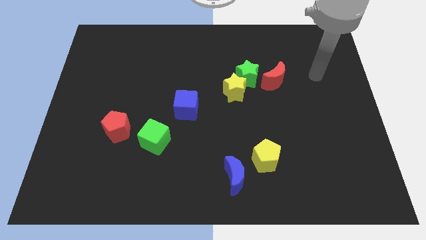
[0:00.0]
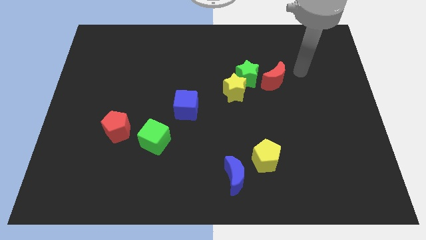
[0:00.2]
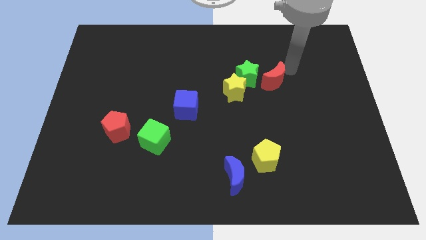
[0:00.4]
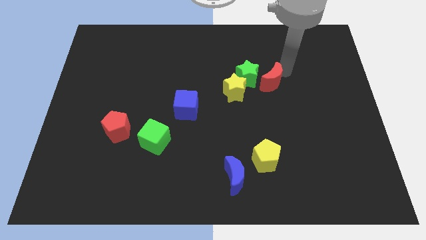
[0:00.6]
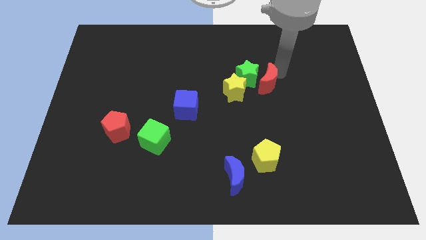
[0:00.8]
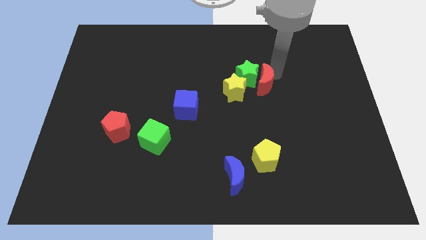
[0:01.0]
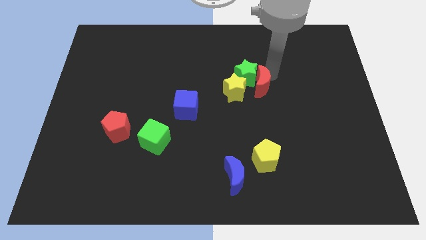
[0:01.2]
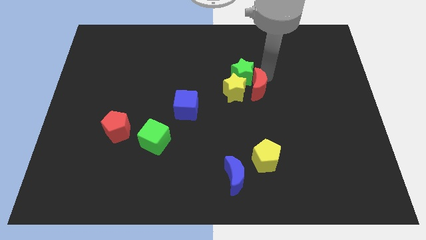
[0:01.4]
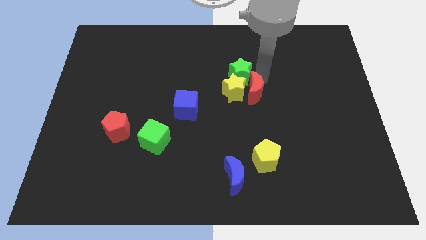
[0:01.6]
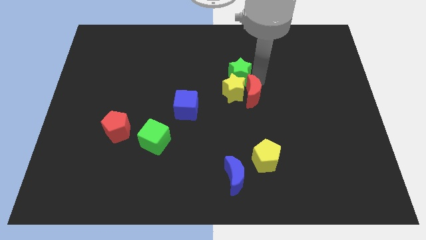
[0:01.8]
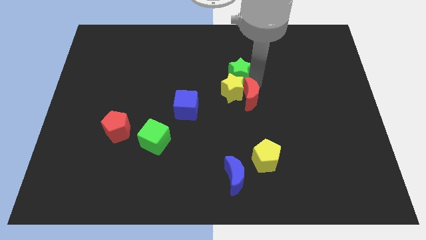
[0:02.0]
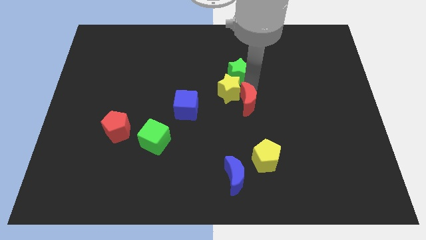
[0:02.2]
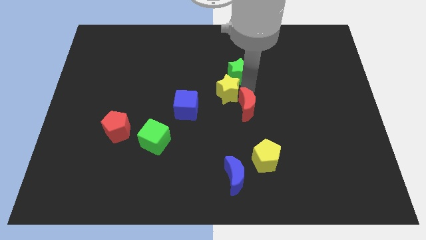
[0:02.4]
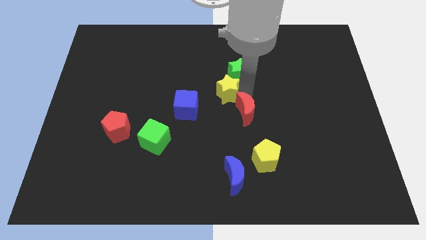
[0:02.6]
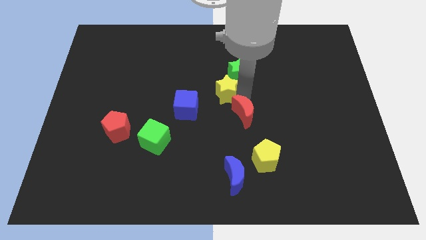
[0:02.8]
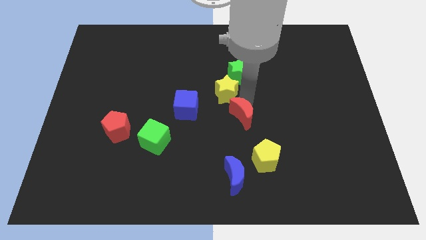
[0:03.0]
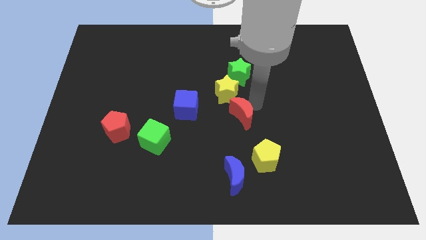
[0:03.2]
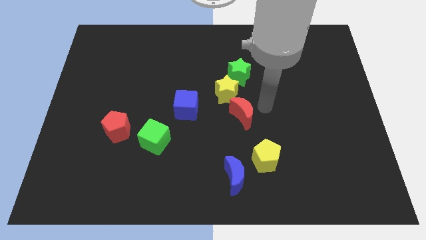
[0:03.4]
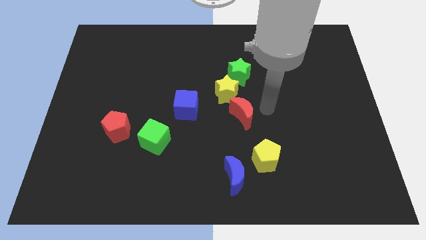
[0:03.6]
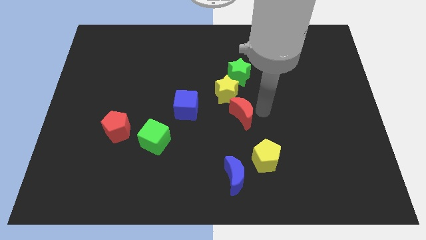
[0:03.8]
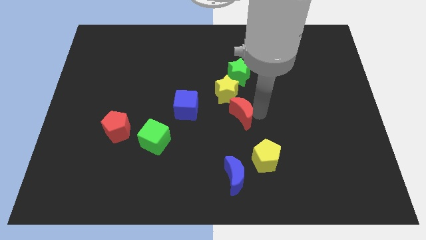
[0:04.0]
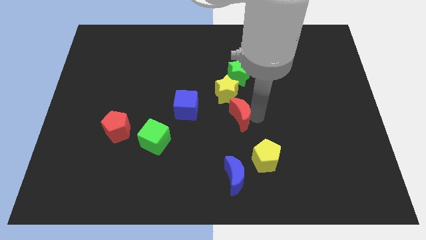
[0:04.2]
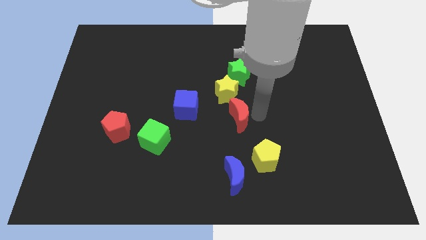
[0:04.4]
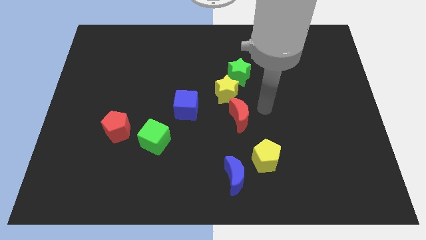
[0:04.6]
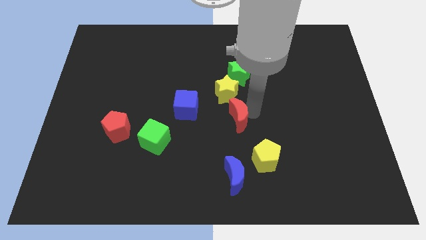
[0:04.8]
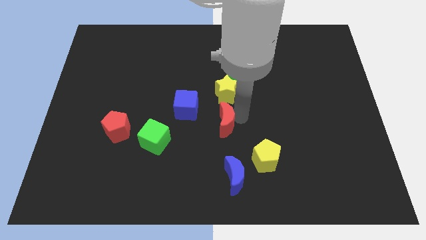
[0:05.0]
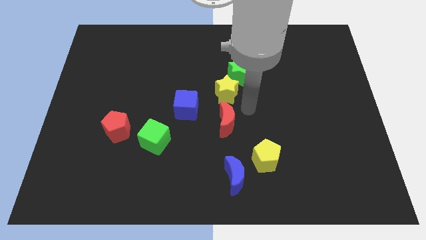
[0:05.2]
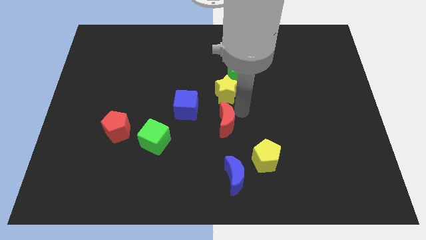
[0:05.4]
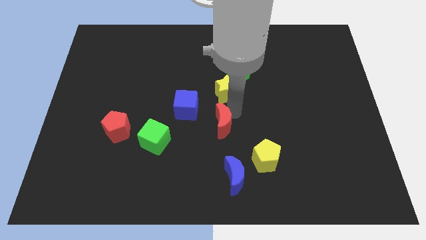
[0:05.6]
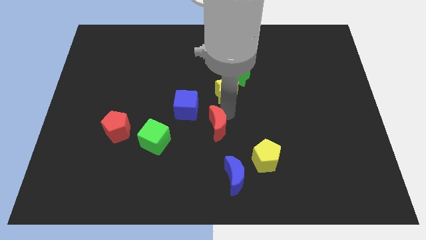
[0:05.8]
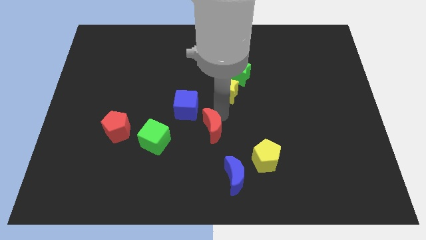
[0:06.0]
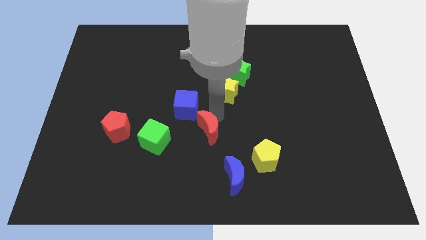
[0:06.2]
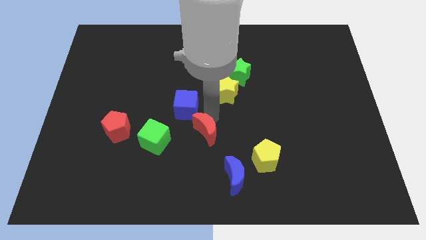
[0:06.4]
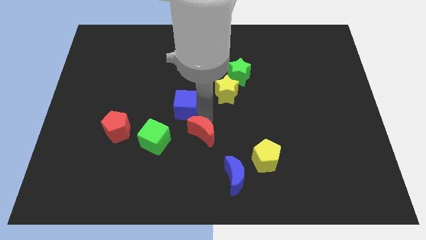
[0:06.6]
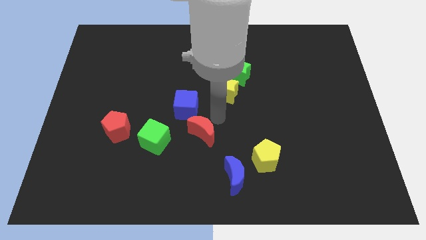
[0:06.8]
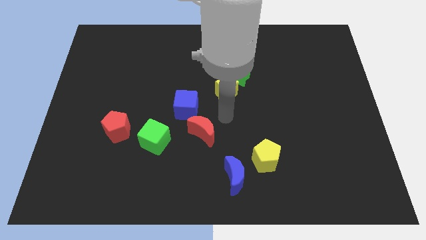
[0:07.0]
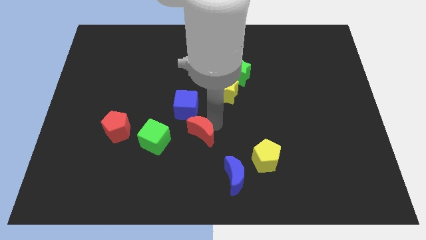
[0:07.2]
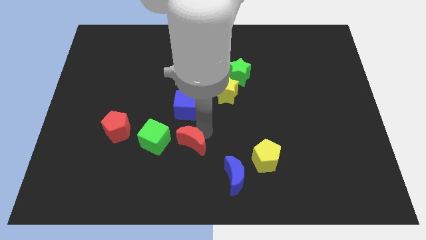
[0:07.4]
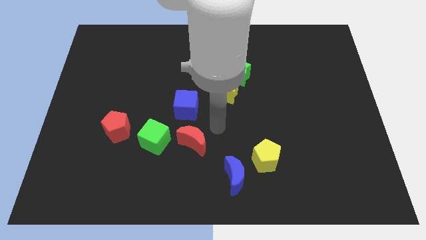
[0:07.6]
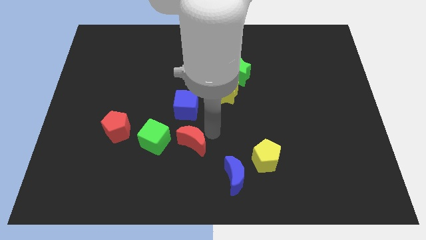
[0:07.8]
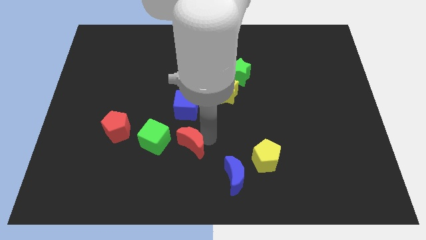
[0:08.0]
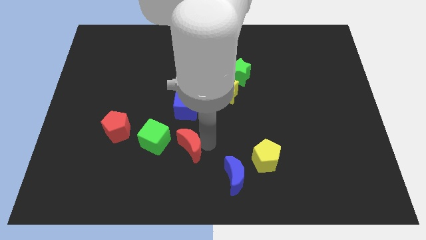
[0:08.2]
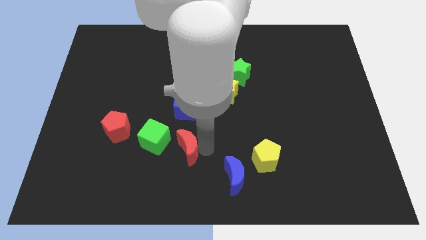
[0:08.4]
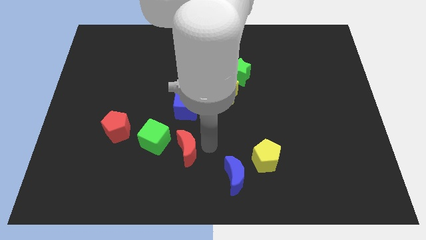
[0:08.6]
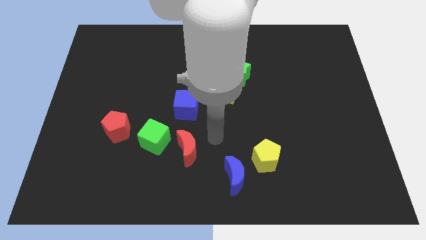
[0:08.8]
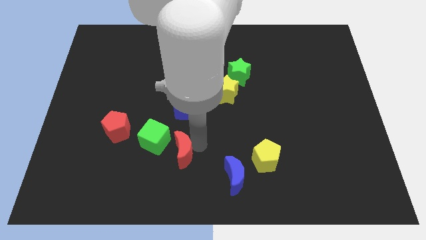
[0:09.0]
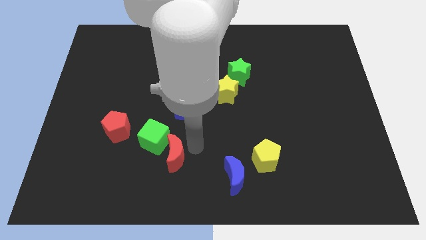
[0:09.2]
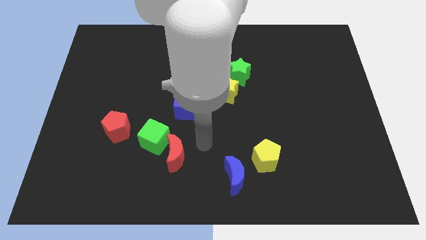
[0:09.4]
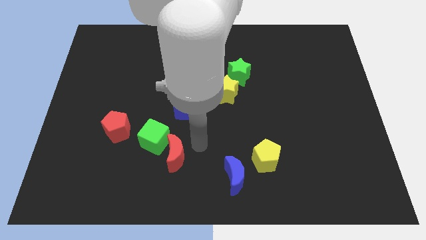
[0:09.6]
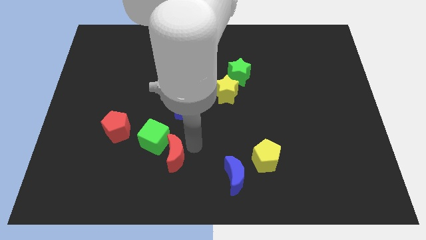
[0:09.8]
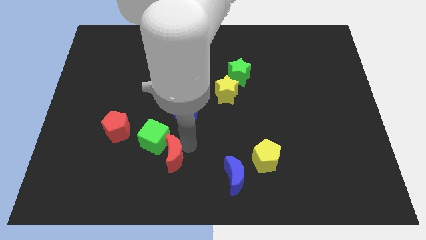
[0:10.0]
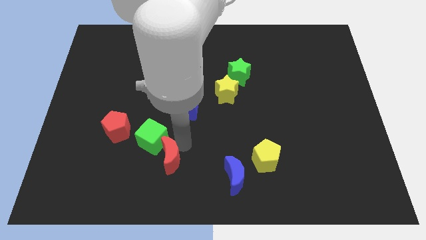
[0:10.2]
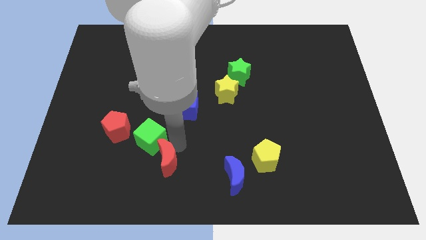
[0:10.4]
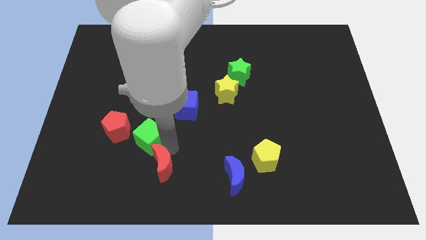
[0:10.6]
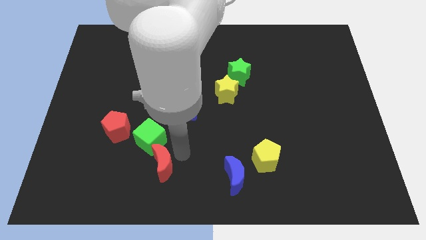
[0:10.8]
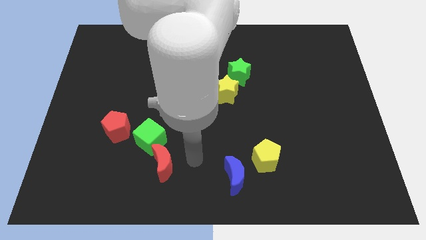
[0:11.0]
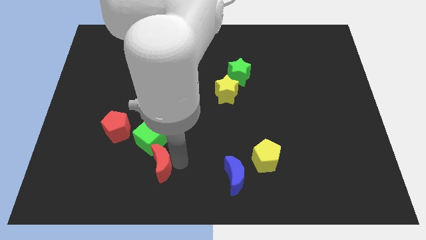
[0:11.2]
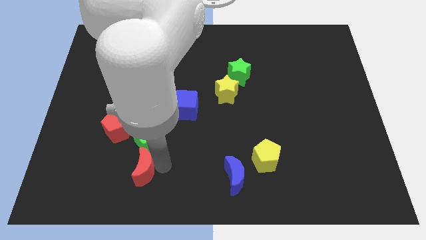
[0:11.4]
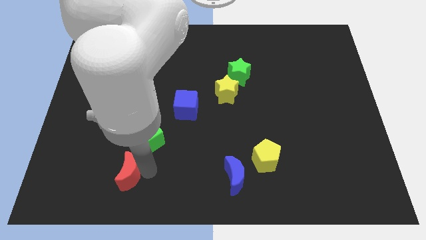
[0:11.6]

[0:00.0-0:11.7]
slide the red moon below the red pentagon
